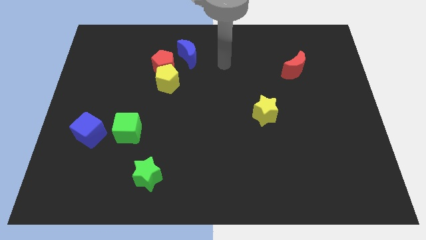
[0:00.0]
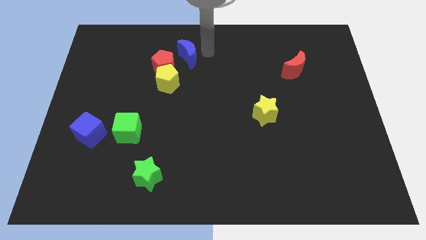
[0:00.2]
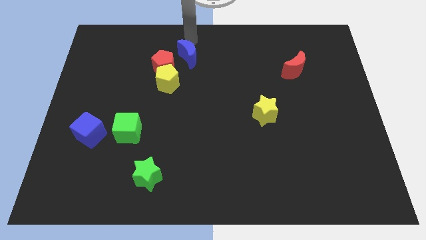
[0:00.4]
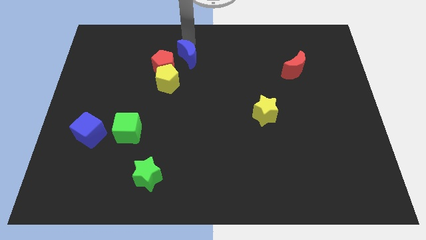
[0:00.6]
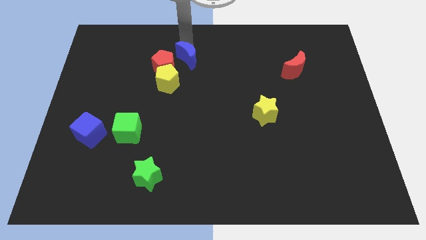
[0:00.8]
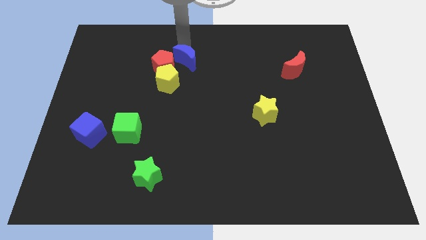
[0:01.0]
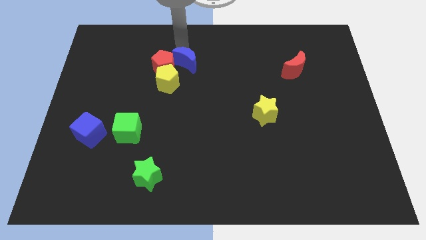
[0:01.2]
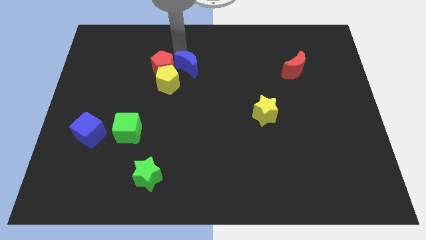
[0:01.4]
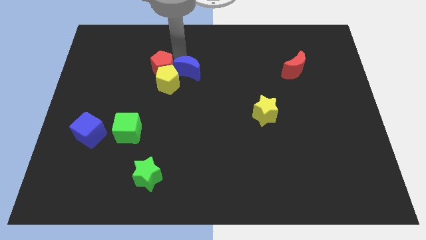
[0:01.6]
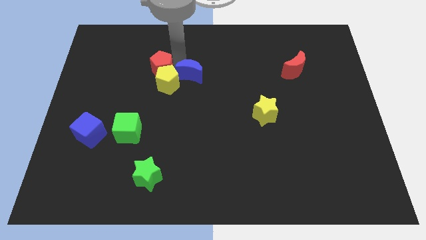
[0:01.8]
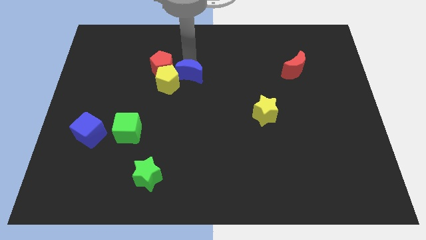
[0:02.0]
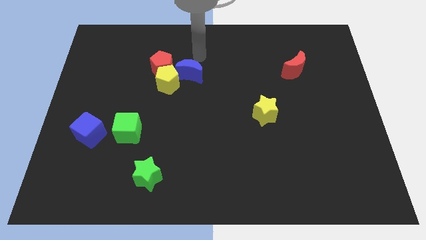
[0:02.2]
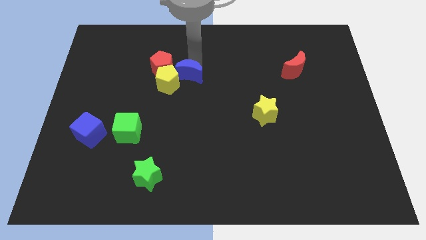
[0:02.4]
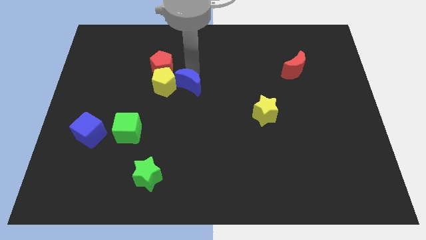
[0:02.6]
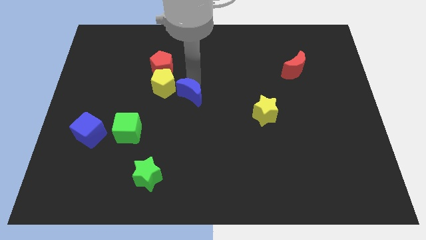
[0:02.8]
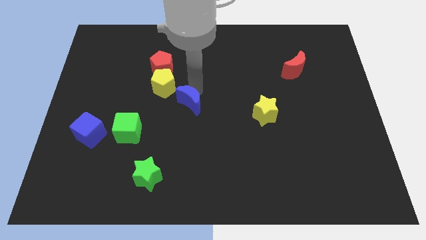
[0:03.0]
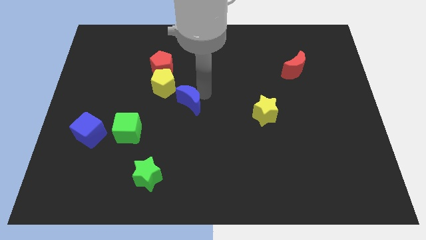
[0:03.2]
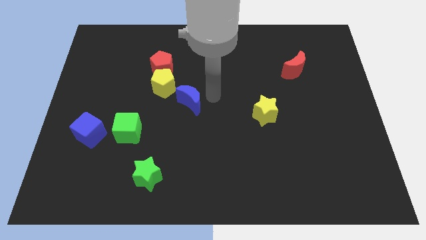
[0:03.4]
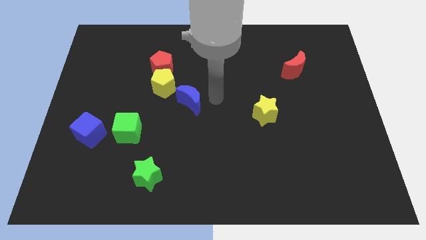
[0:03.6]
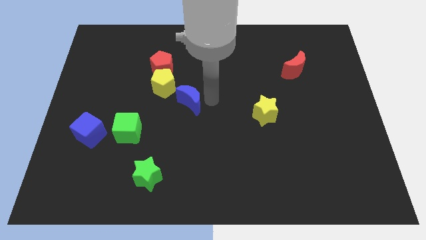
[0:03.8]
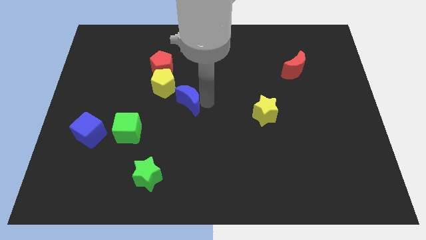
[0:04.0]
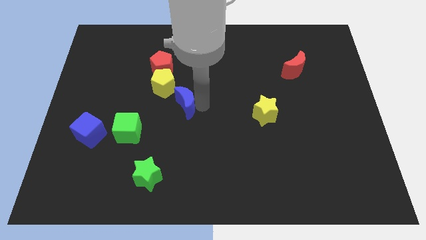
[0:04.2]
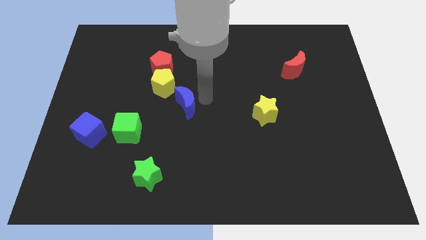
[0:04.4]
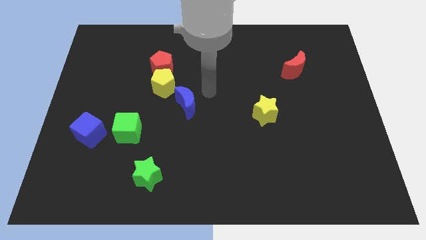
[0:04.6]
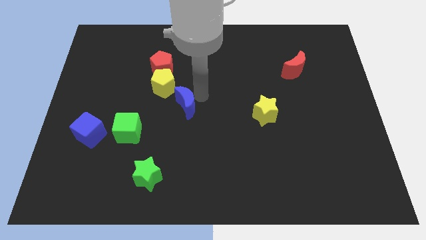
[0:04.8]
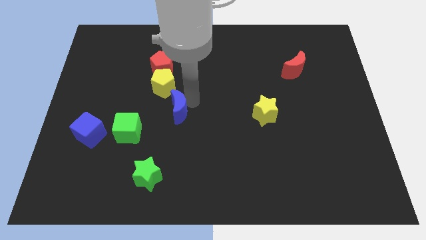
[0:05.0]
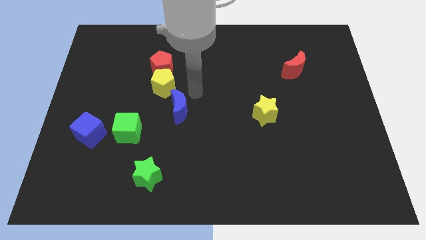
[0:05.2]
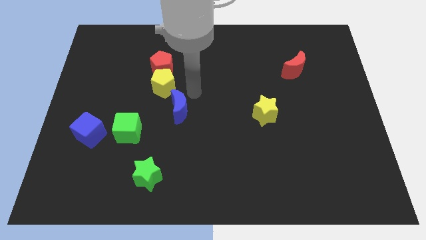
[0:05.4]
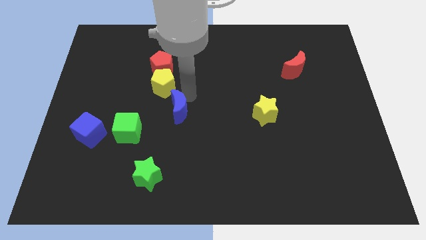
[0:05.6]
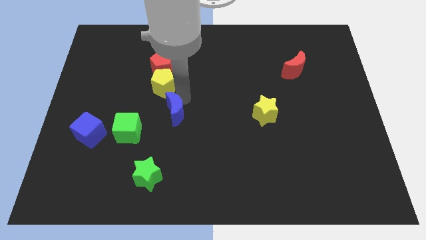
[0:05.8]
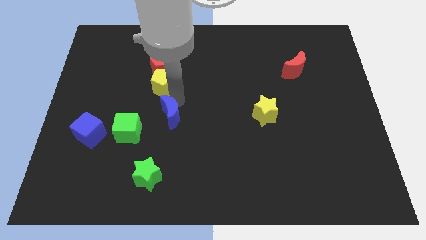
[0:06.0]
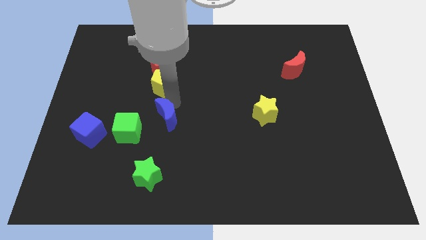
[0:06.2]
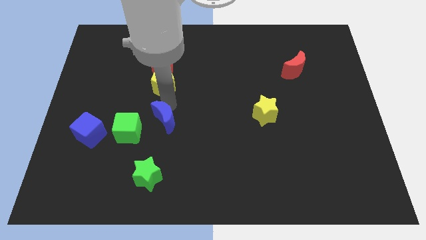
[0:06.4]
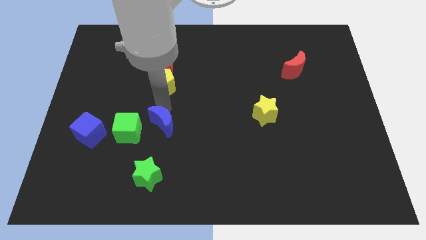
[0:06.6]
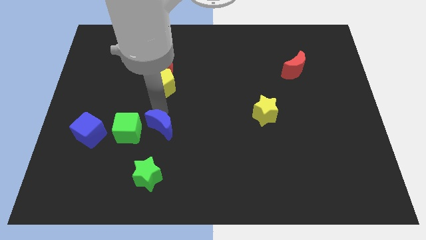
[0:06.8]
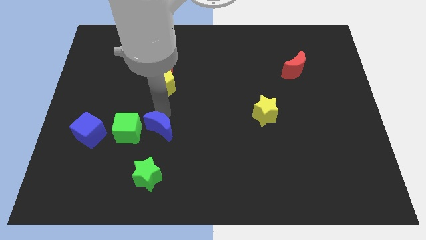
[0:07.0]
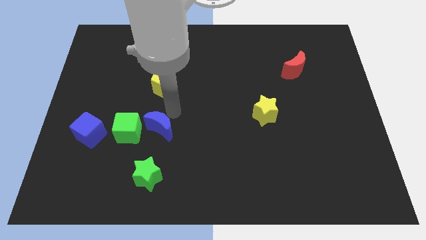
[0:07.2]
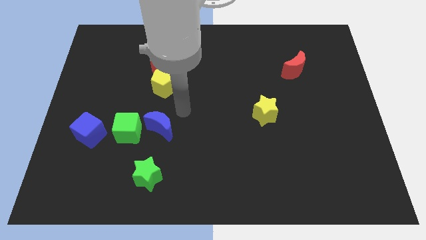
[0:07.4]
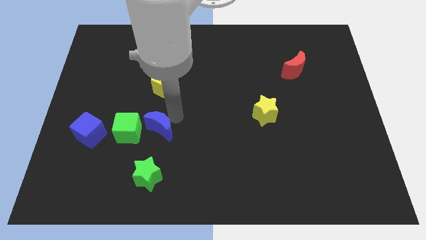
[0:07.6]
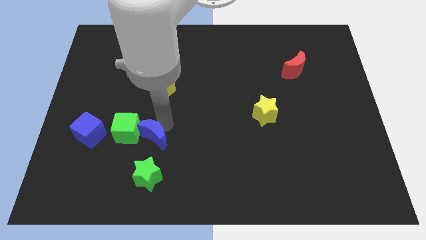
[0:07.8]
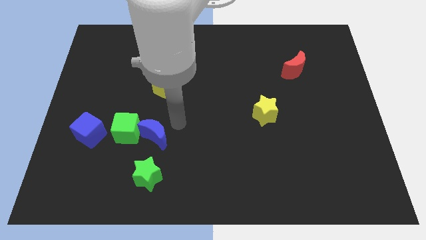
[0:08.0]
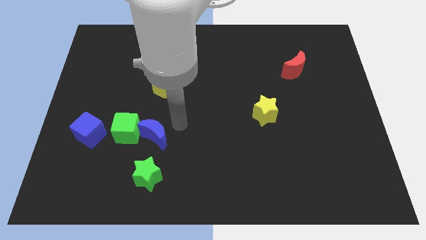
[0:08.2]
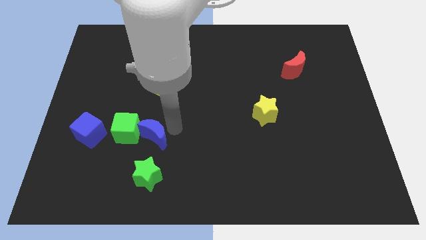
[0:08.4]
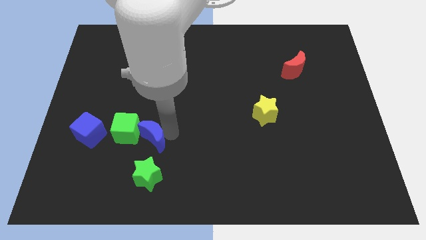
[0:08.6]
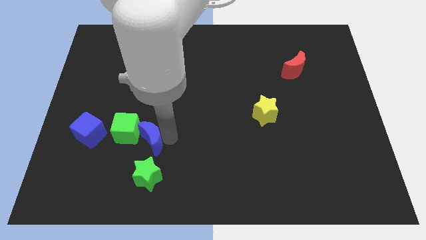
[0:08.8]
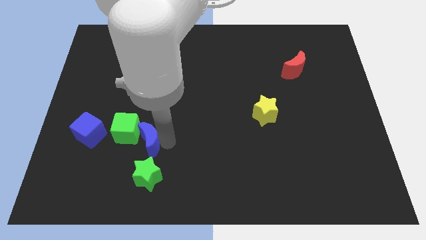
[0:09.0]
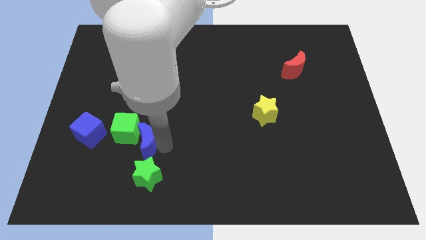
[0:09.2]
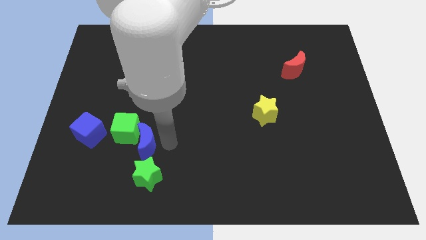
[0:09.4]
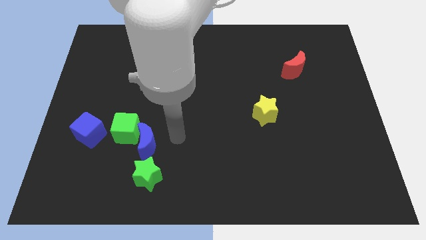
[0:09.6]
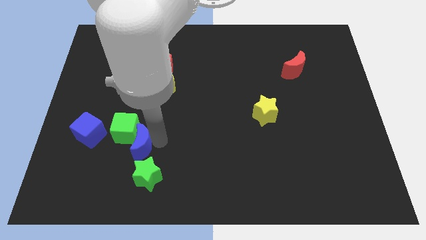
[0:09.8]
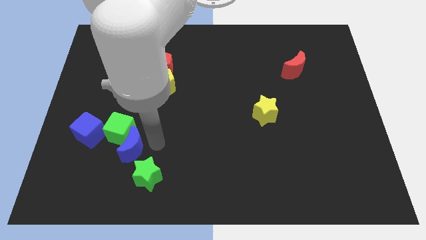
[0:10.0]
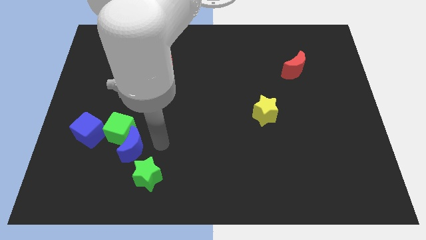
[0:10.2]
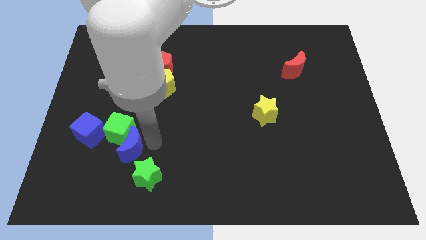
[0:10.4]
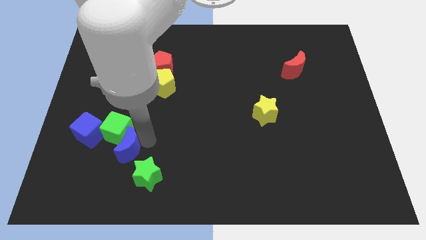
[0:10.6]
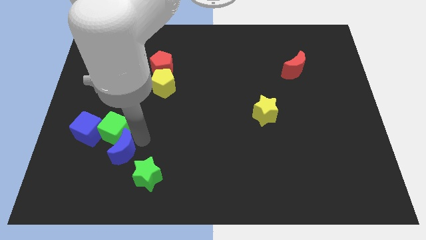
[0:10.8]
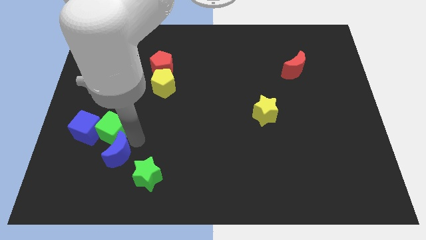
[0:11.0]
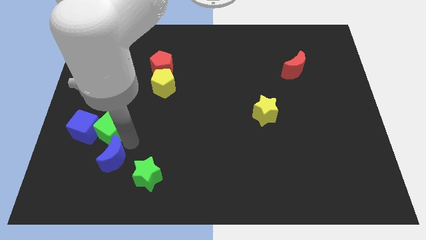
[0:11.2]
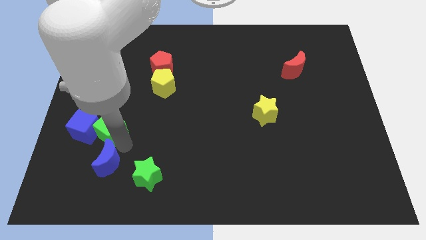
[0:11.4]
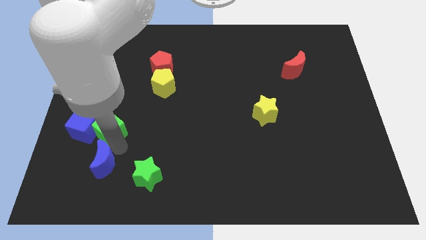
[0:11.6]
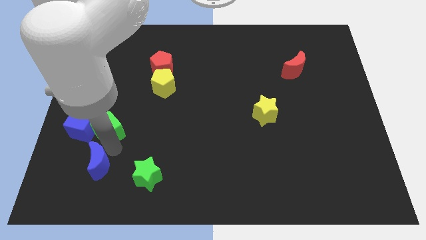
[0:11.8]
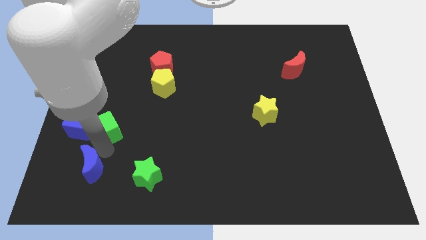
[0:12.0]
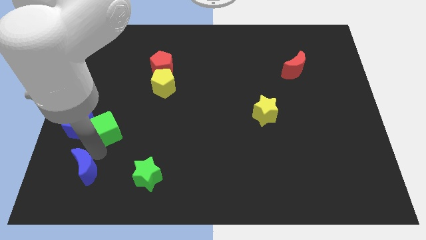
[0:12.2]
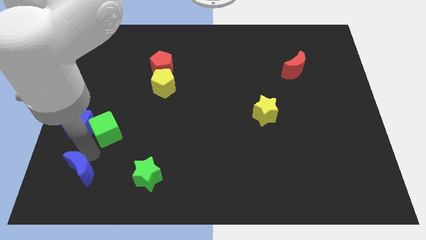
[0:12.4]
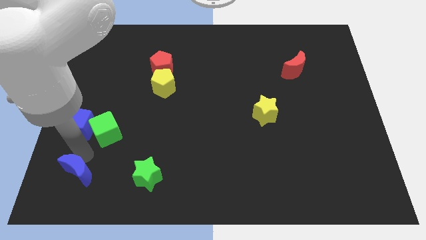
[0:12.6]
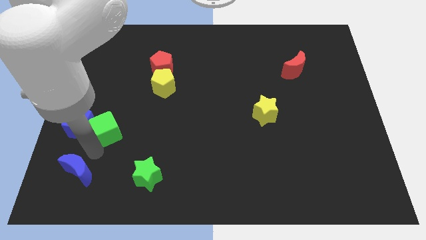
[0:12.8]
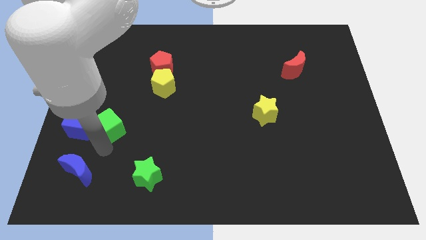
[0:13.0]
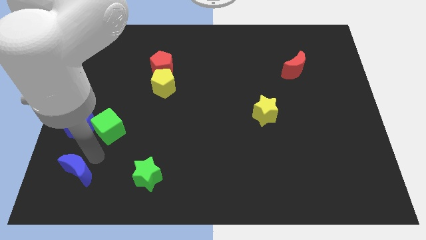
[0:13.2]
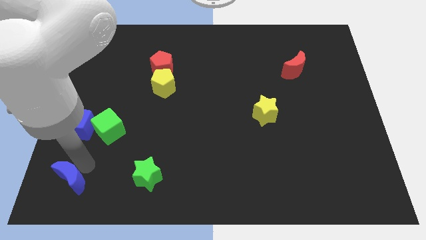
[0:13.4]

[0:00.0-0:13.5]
move the blue moon to the lower left corner
